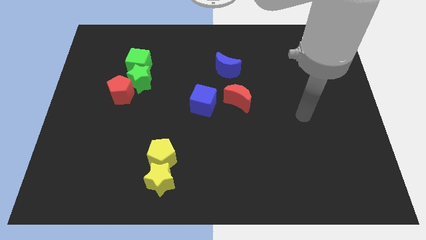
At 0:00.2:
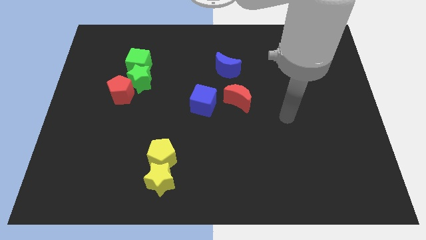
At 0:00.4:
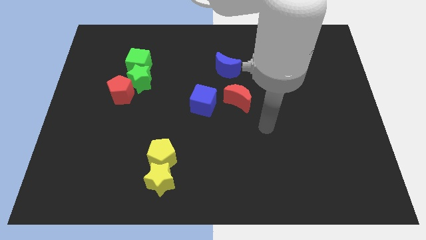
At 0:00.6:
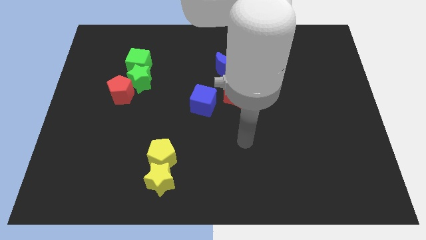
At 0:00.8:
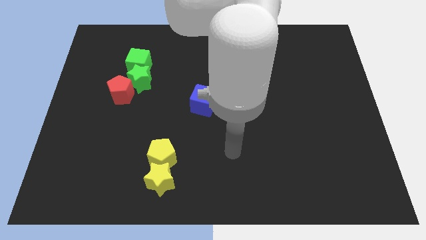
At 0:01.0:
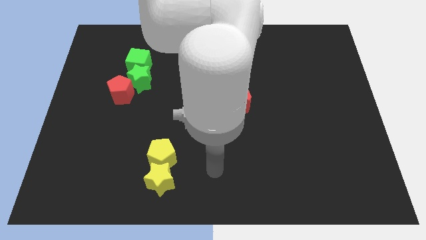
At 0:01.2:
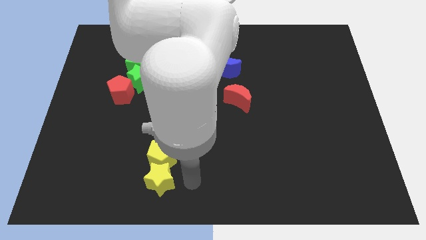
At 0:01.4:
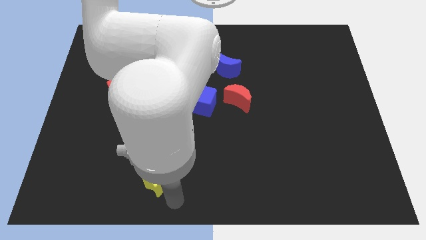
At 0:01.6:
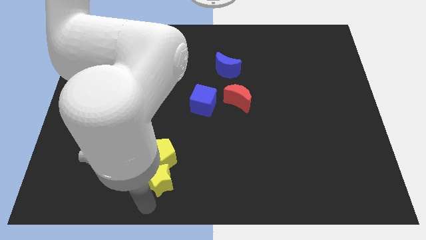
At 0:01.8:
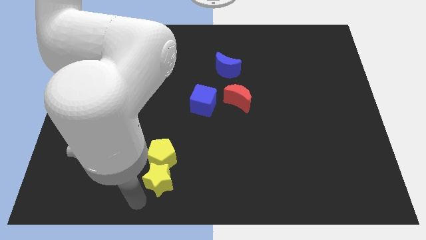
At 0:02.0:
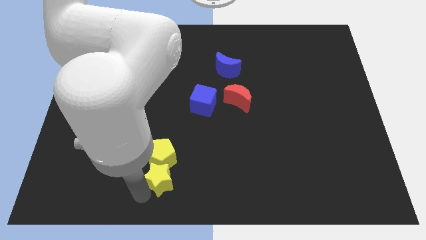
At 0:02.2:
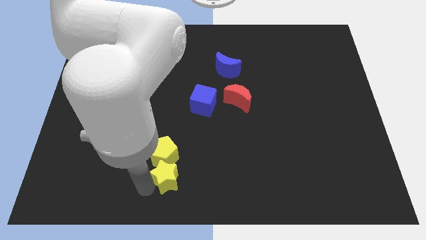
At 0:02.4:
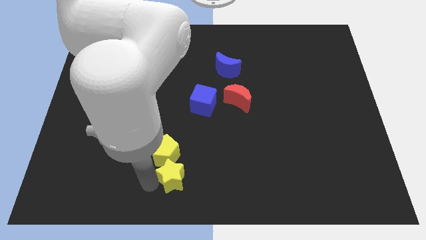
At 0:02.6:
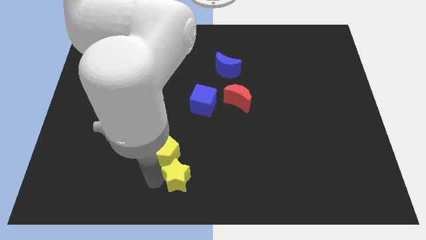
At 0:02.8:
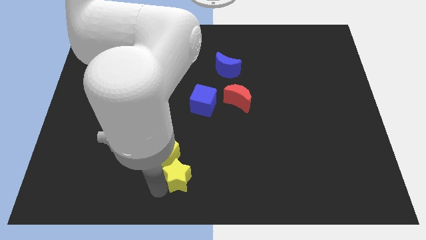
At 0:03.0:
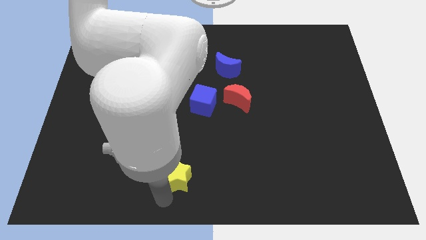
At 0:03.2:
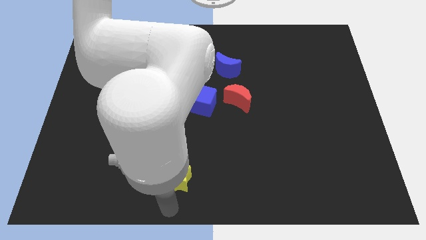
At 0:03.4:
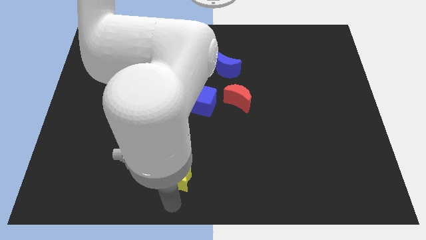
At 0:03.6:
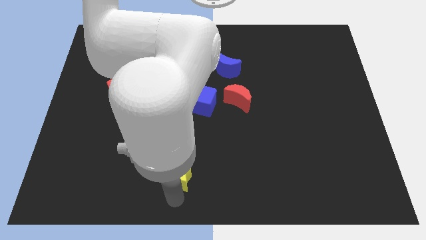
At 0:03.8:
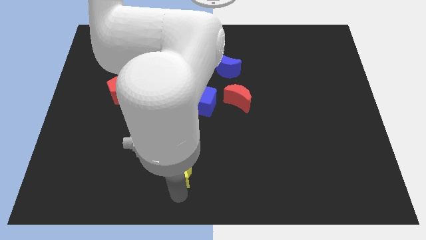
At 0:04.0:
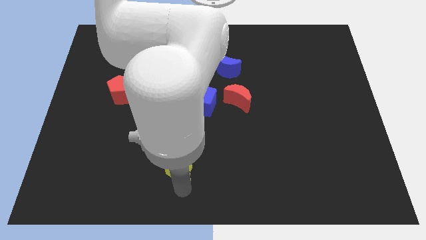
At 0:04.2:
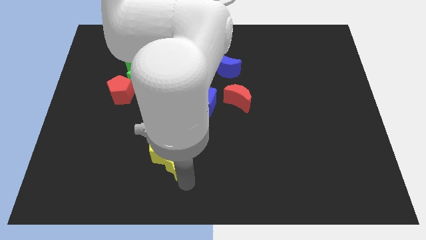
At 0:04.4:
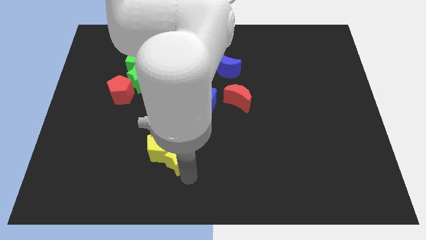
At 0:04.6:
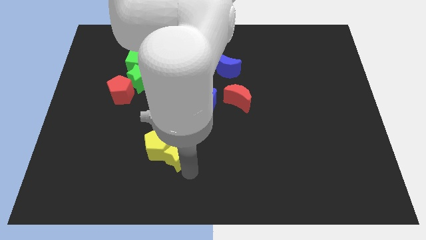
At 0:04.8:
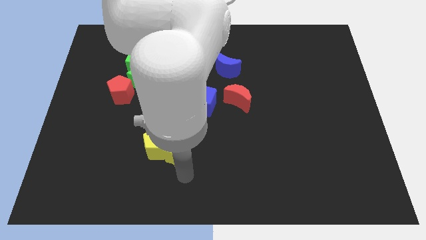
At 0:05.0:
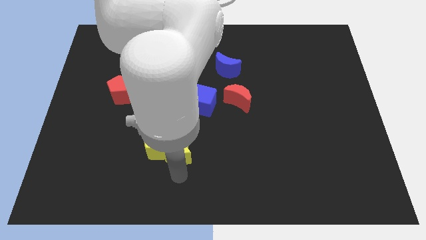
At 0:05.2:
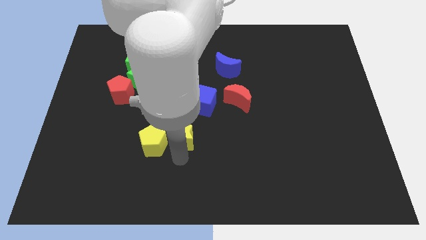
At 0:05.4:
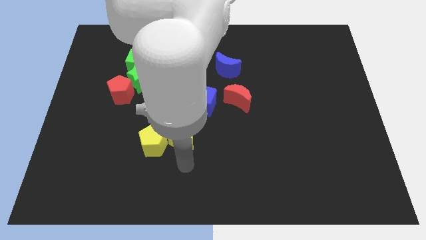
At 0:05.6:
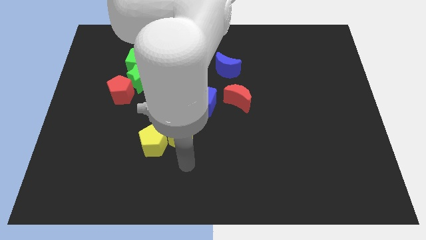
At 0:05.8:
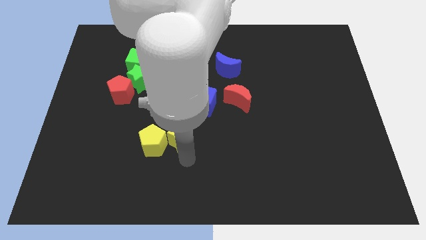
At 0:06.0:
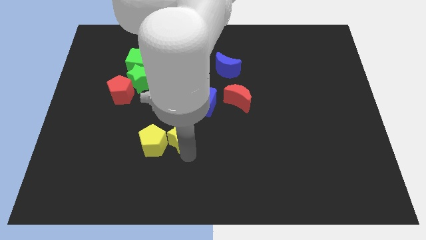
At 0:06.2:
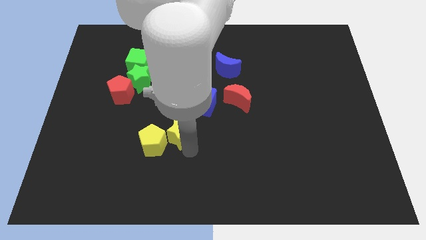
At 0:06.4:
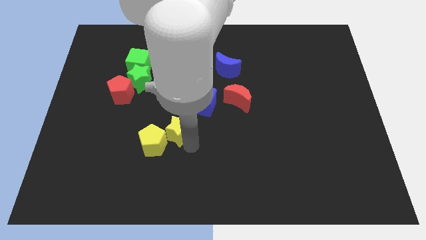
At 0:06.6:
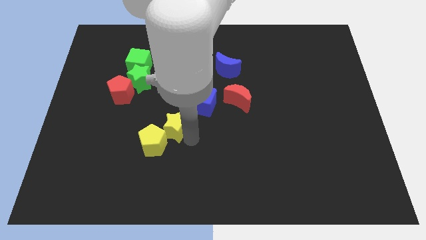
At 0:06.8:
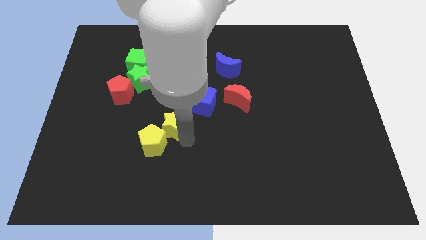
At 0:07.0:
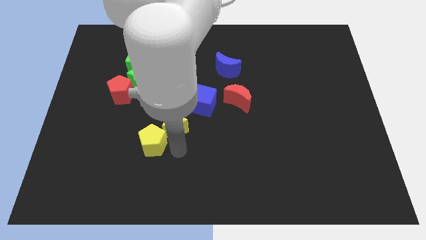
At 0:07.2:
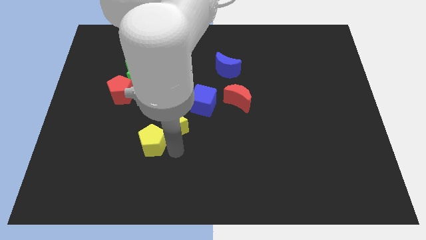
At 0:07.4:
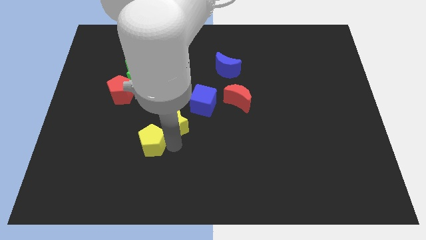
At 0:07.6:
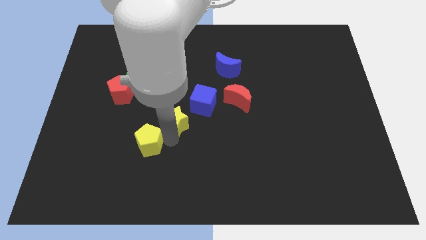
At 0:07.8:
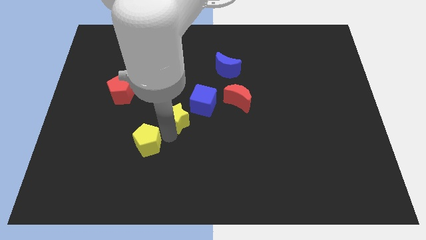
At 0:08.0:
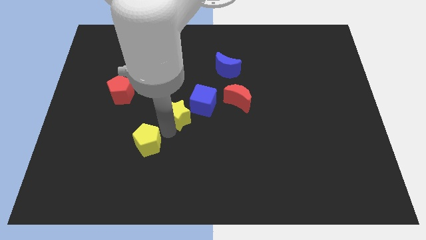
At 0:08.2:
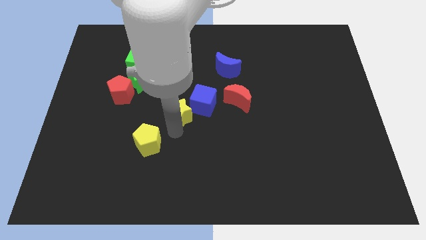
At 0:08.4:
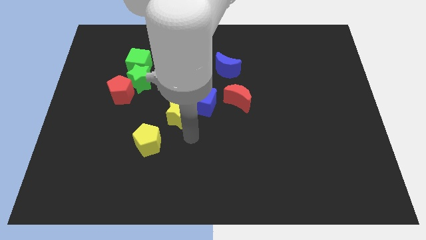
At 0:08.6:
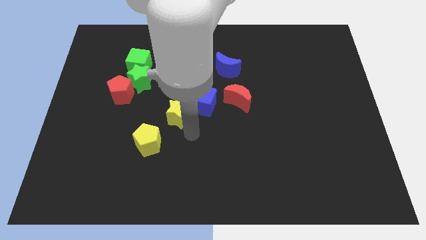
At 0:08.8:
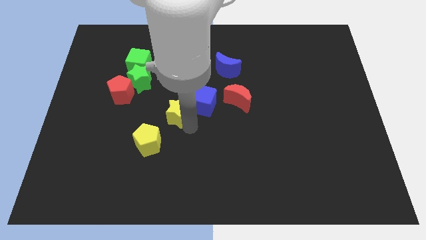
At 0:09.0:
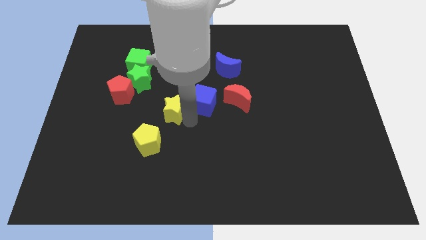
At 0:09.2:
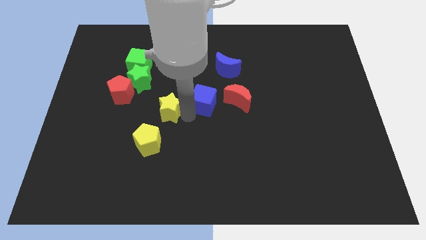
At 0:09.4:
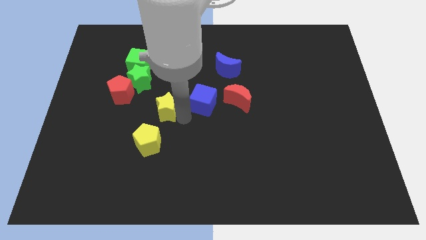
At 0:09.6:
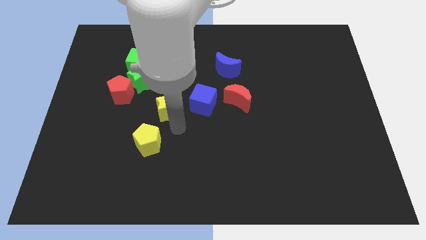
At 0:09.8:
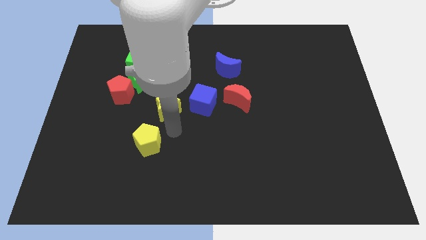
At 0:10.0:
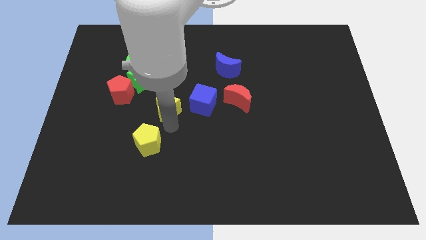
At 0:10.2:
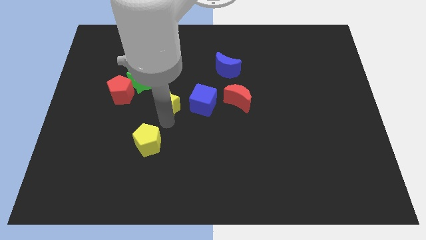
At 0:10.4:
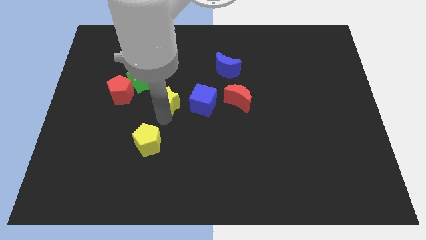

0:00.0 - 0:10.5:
move the yellow star upwards

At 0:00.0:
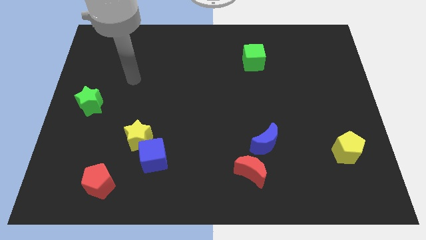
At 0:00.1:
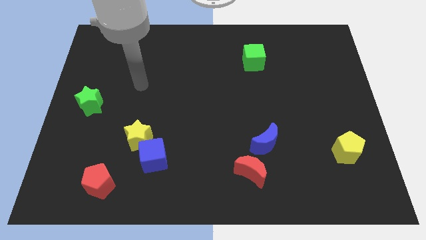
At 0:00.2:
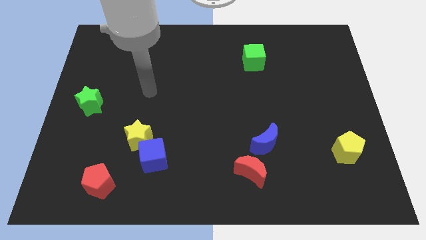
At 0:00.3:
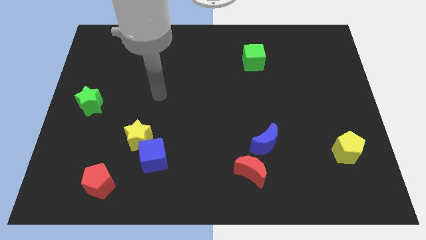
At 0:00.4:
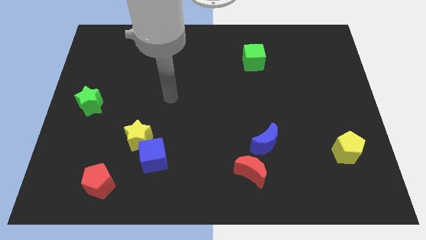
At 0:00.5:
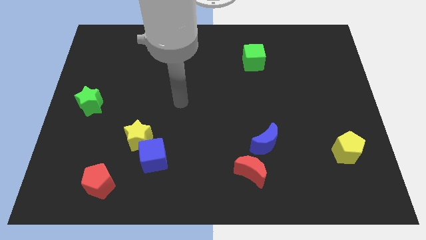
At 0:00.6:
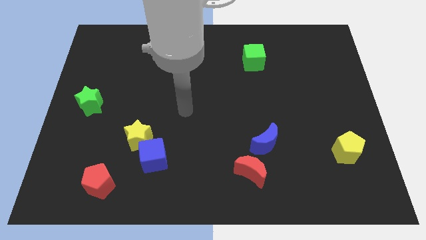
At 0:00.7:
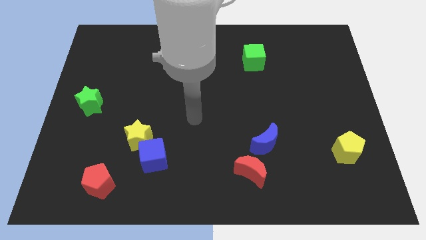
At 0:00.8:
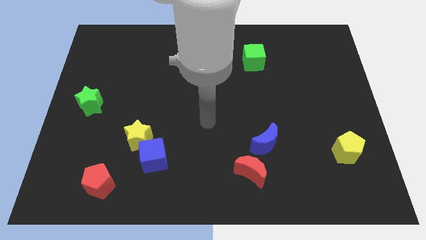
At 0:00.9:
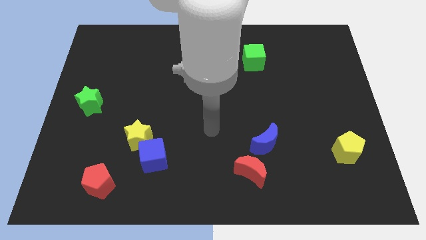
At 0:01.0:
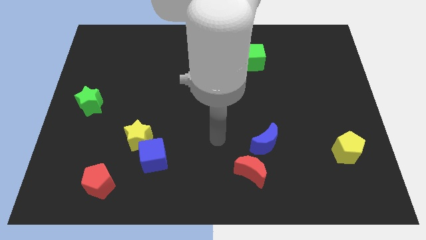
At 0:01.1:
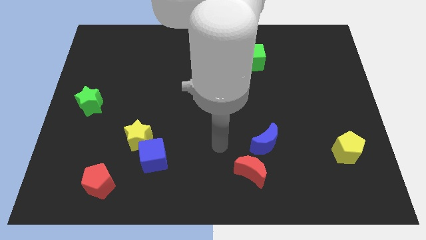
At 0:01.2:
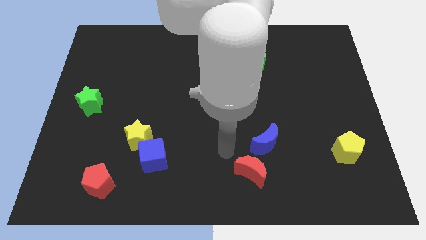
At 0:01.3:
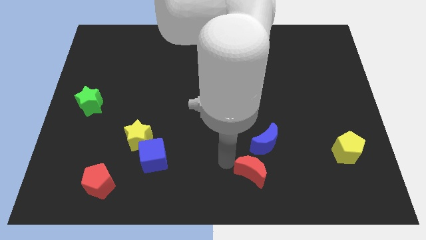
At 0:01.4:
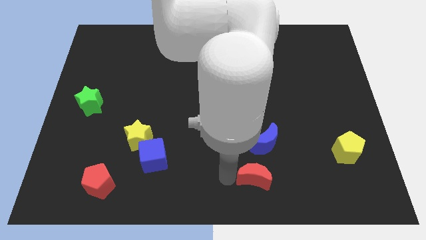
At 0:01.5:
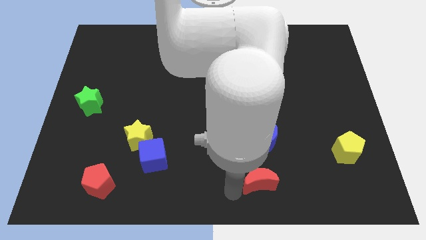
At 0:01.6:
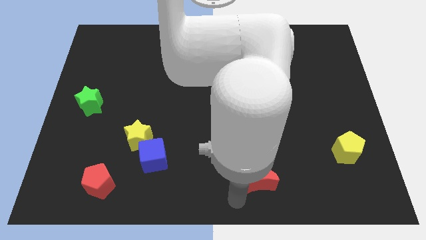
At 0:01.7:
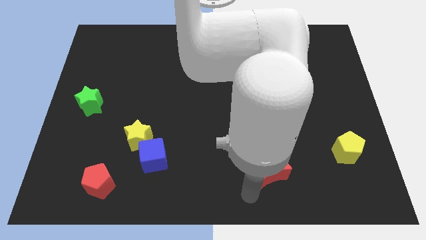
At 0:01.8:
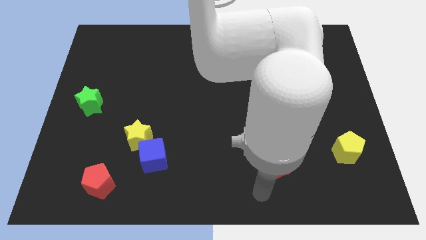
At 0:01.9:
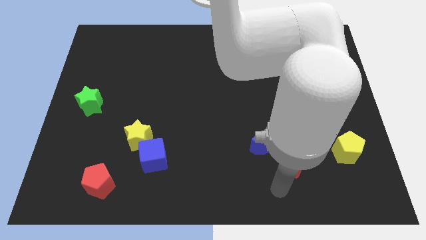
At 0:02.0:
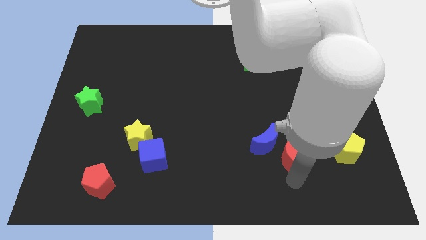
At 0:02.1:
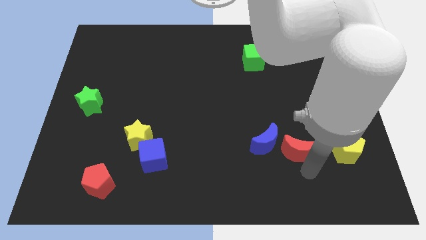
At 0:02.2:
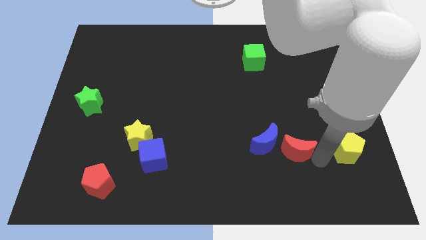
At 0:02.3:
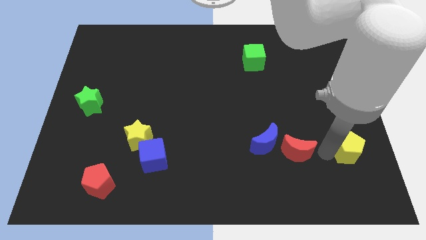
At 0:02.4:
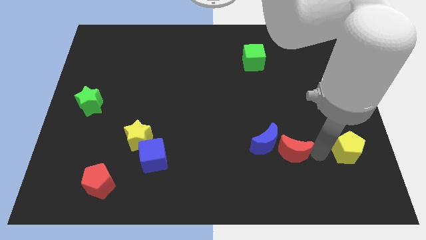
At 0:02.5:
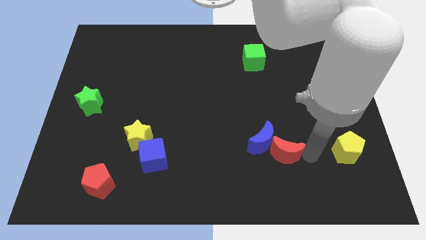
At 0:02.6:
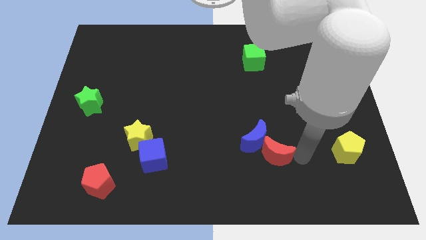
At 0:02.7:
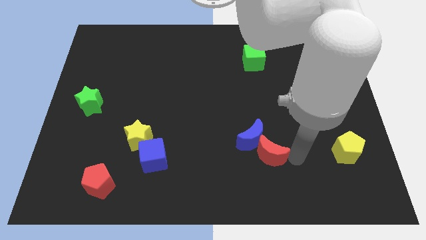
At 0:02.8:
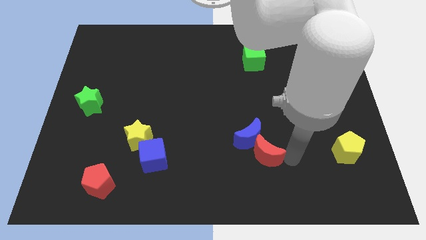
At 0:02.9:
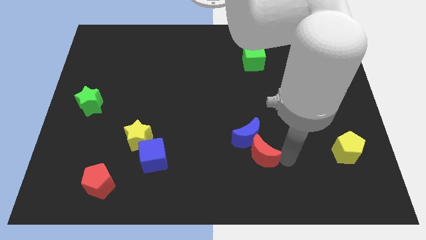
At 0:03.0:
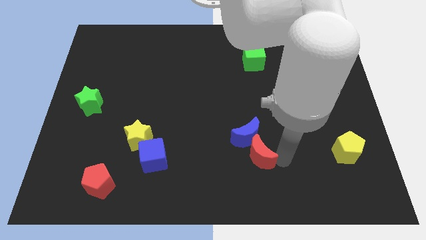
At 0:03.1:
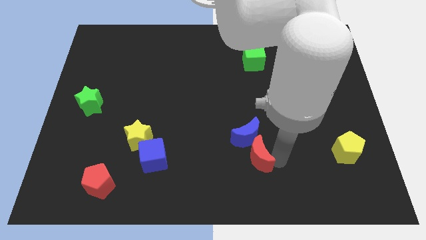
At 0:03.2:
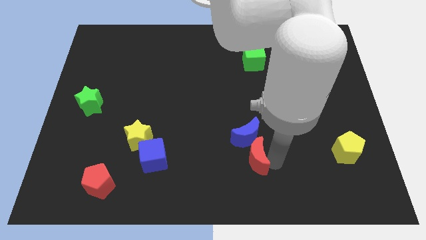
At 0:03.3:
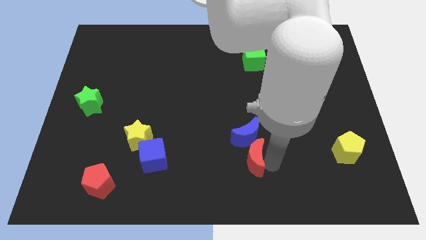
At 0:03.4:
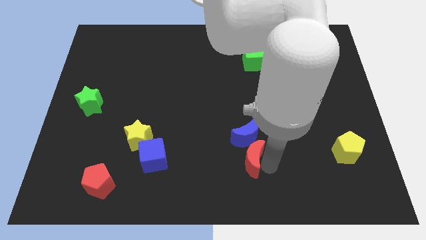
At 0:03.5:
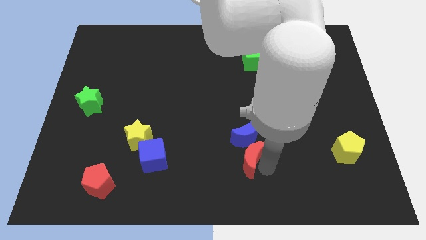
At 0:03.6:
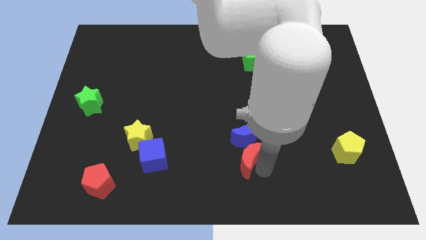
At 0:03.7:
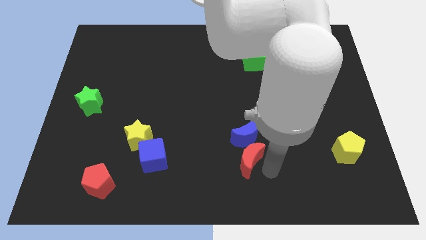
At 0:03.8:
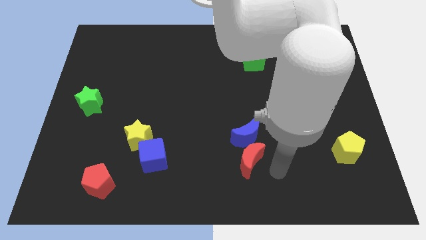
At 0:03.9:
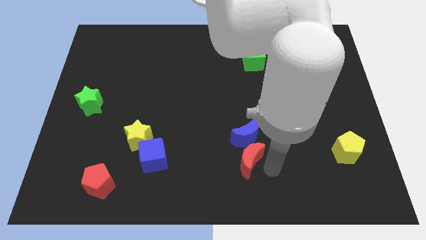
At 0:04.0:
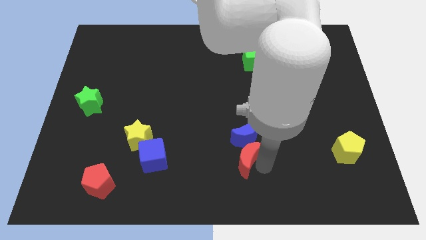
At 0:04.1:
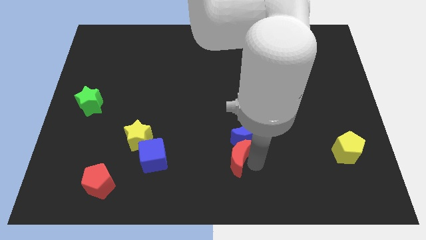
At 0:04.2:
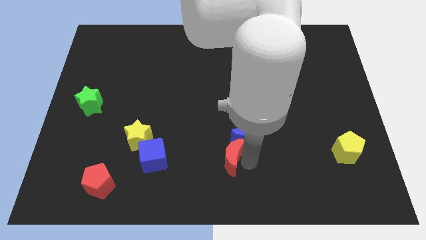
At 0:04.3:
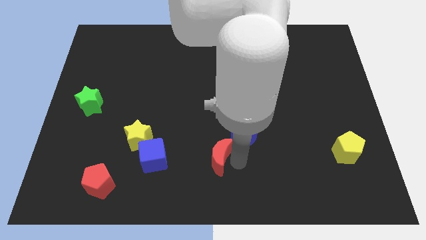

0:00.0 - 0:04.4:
move the red moon a bit diagonally upwards and to the left
